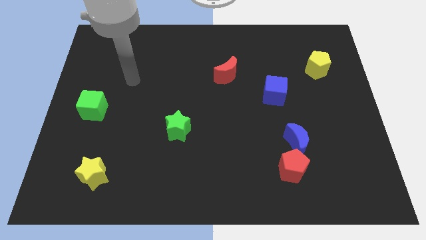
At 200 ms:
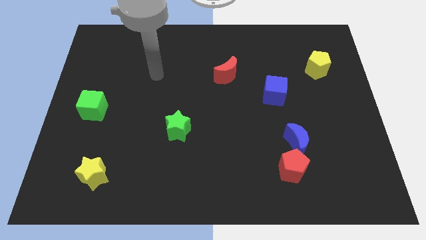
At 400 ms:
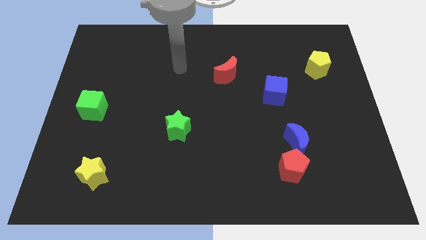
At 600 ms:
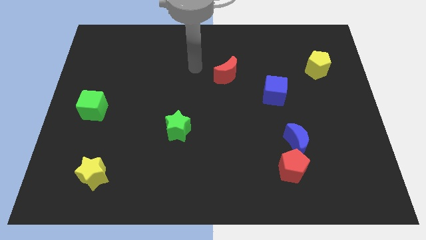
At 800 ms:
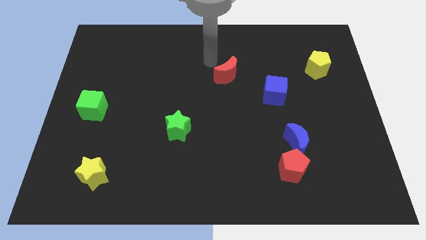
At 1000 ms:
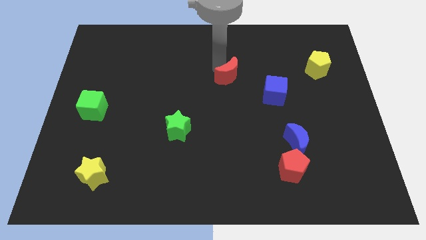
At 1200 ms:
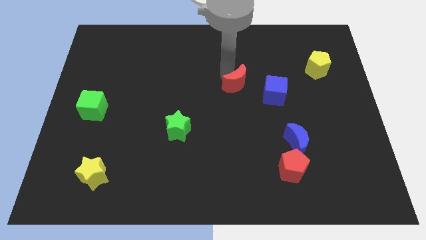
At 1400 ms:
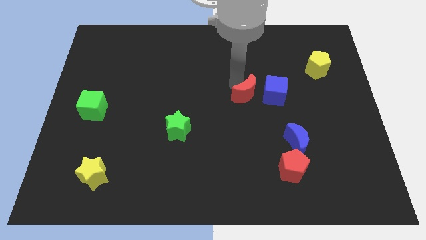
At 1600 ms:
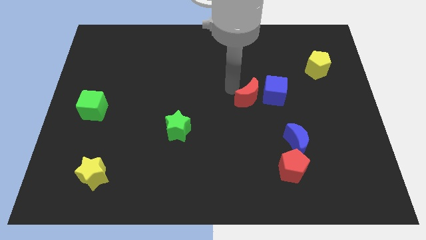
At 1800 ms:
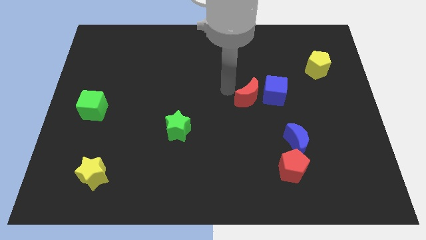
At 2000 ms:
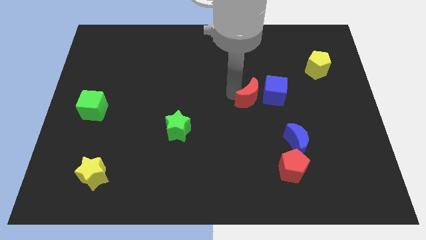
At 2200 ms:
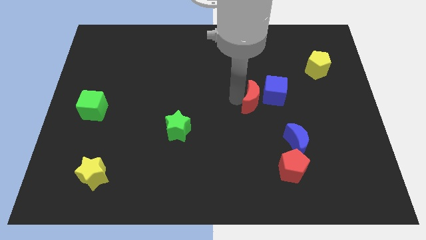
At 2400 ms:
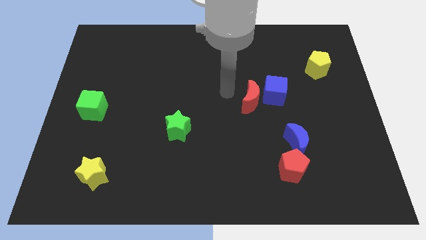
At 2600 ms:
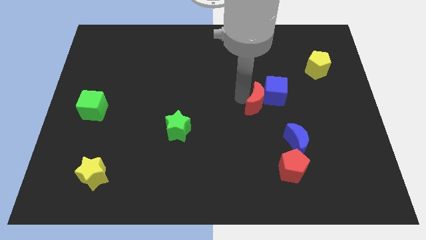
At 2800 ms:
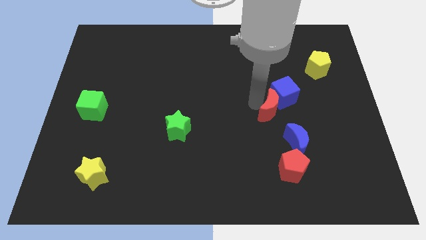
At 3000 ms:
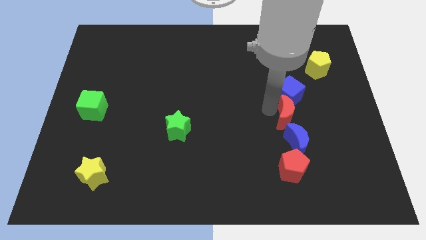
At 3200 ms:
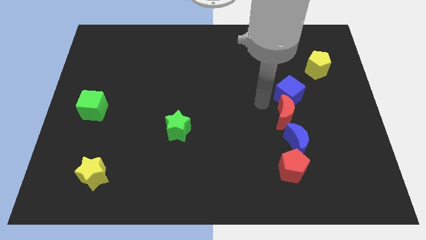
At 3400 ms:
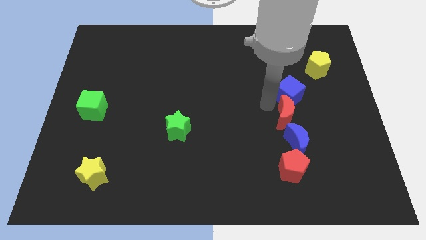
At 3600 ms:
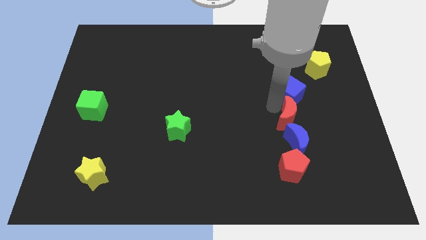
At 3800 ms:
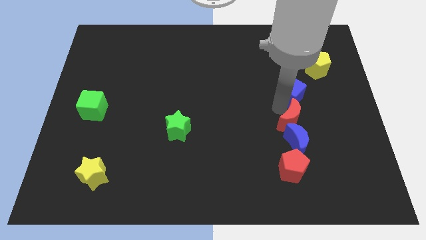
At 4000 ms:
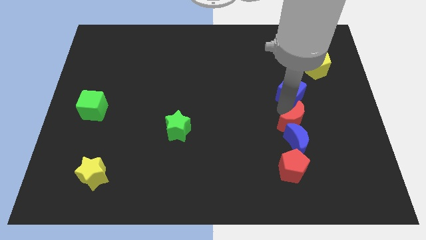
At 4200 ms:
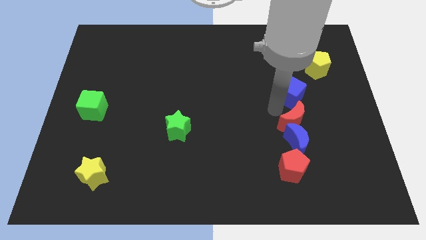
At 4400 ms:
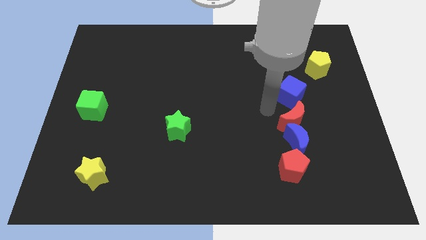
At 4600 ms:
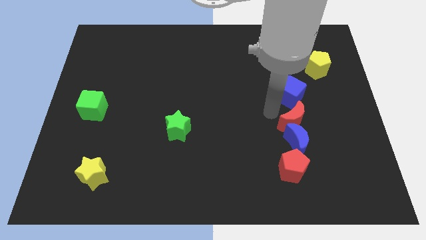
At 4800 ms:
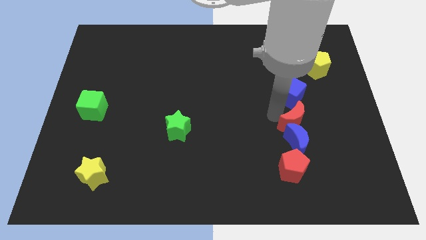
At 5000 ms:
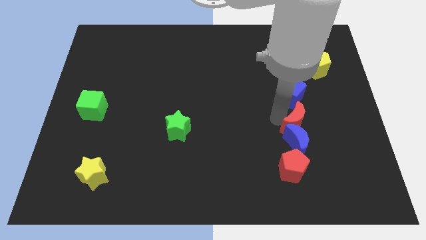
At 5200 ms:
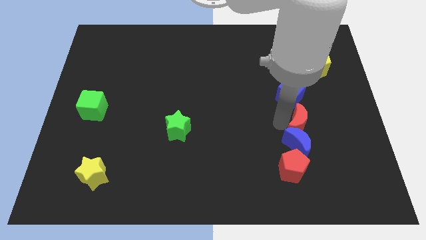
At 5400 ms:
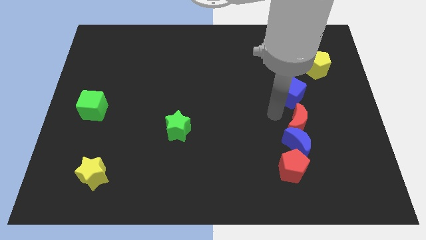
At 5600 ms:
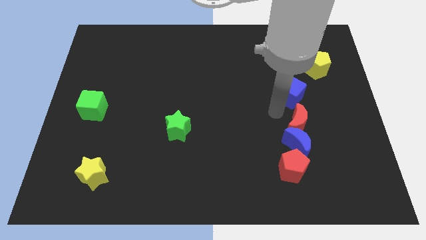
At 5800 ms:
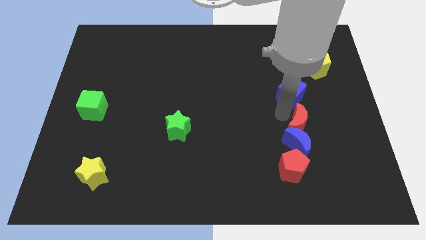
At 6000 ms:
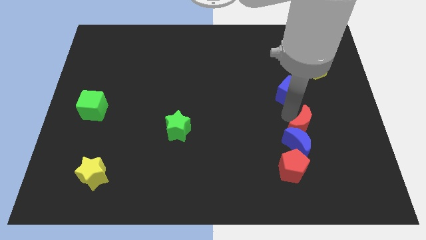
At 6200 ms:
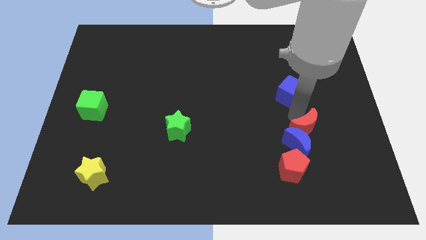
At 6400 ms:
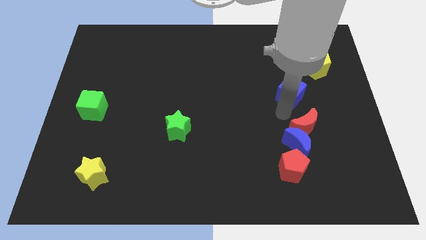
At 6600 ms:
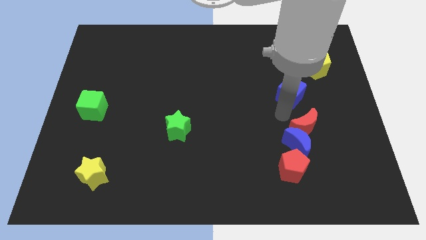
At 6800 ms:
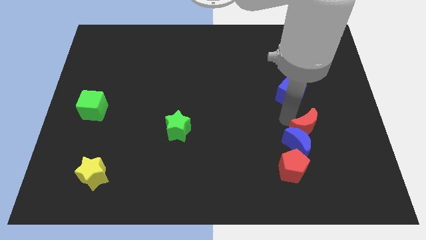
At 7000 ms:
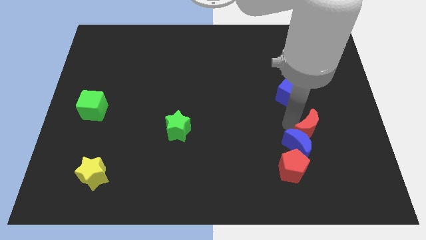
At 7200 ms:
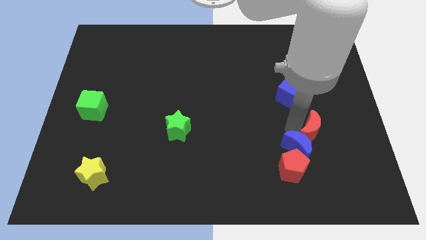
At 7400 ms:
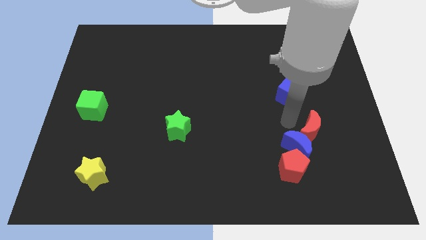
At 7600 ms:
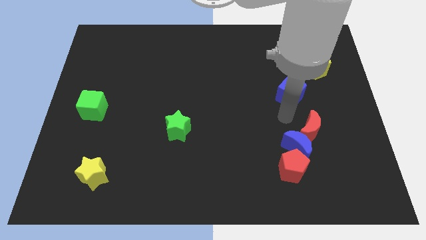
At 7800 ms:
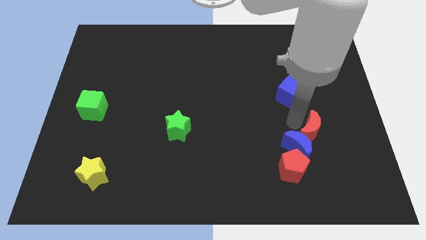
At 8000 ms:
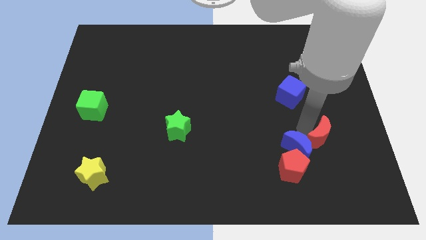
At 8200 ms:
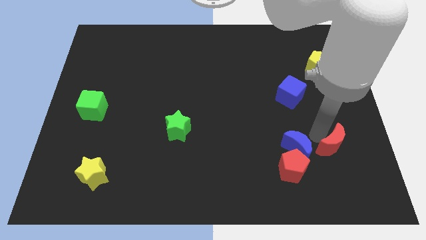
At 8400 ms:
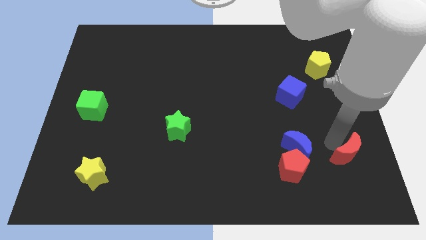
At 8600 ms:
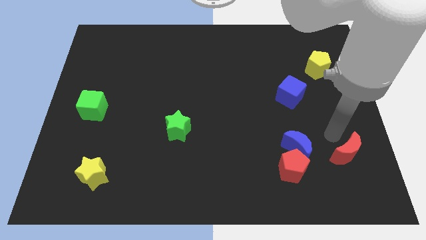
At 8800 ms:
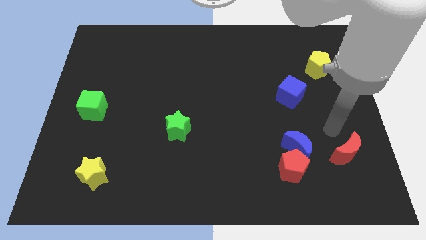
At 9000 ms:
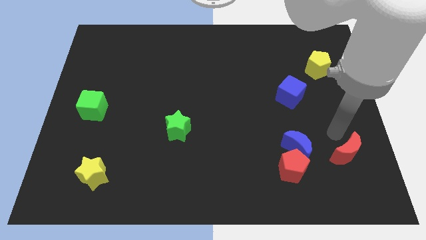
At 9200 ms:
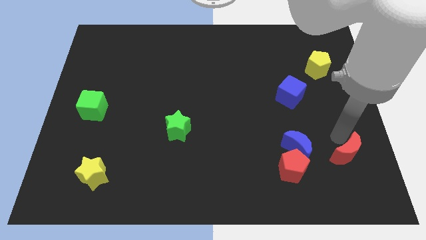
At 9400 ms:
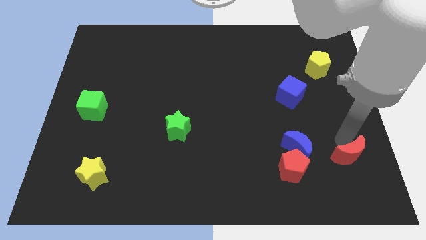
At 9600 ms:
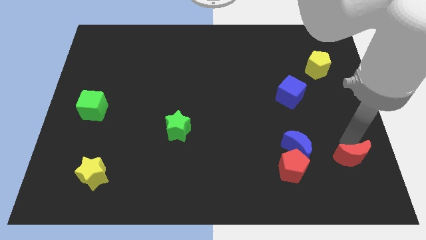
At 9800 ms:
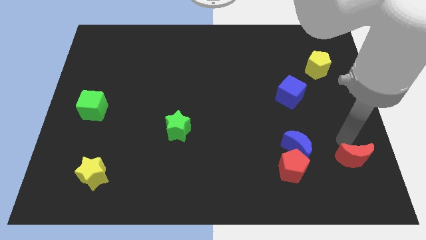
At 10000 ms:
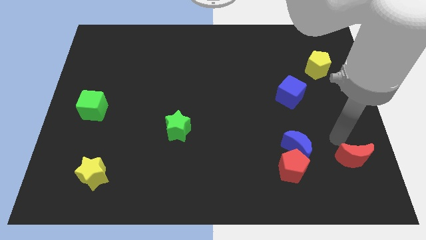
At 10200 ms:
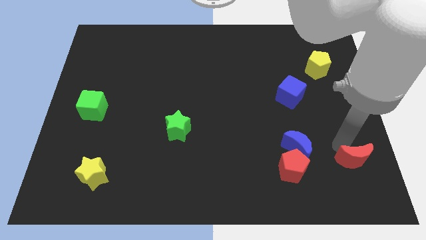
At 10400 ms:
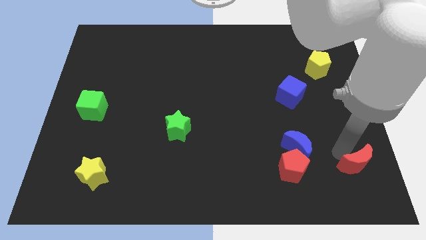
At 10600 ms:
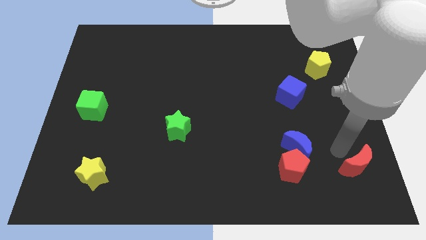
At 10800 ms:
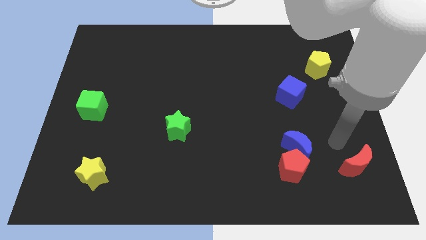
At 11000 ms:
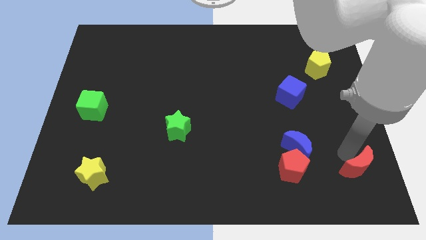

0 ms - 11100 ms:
put the red moon to the bottom right corner

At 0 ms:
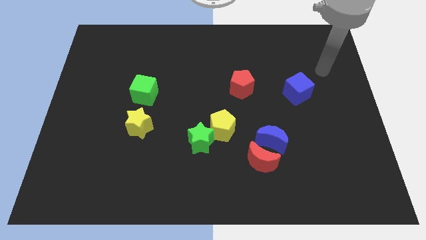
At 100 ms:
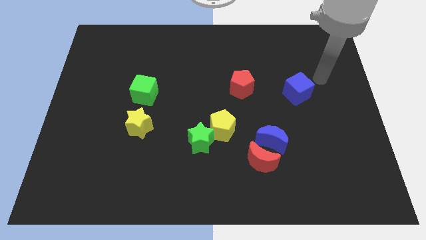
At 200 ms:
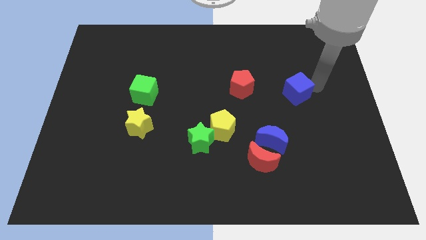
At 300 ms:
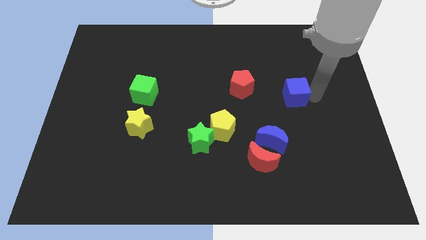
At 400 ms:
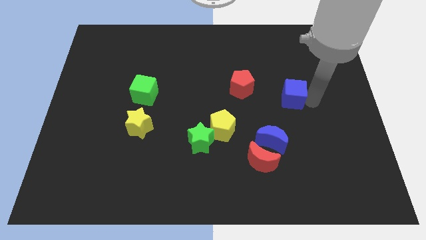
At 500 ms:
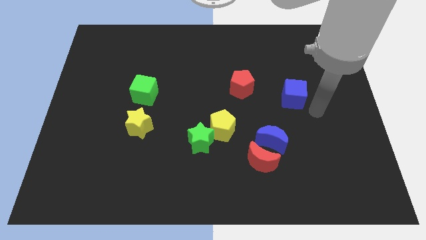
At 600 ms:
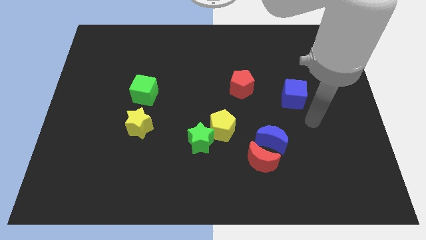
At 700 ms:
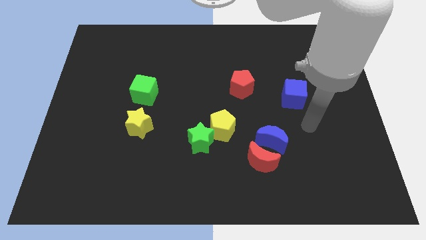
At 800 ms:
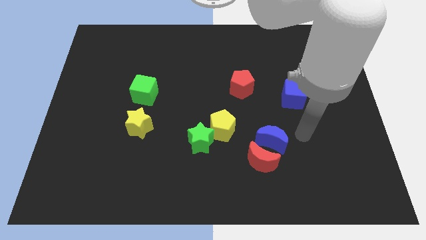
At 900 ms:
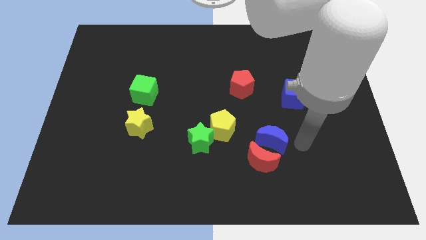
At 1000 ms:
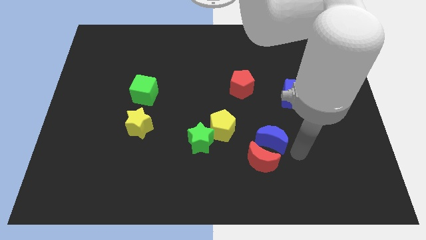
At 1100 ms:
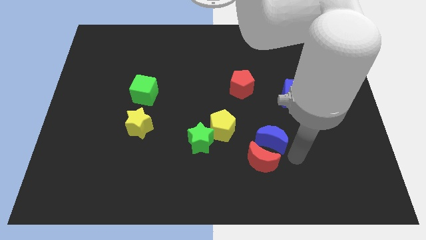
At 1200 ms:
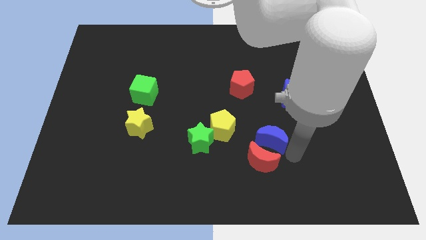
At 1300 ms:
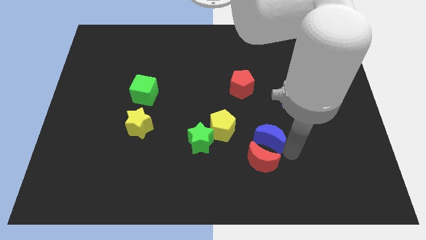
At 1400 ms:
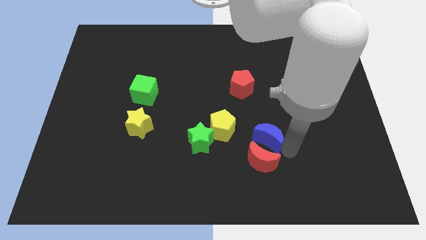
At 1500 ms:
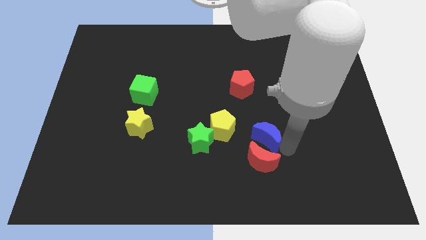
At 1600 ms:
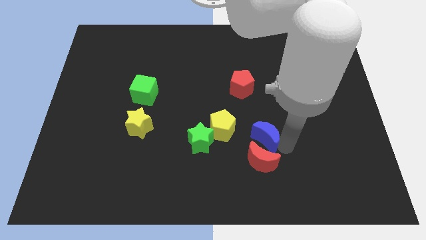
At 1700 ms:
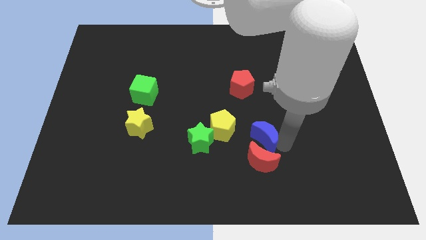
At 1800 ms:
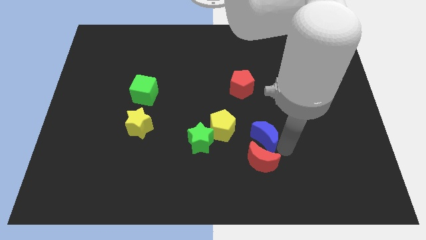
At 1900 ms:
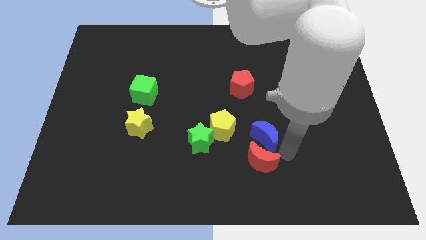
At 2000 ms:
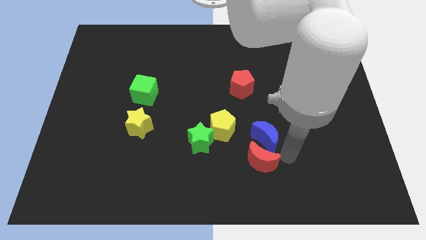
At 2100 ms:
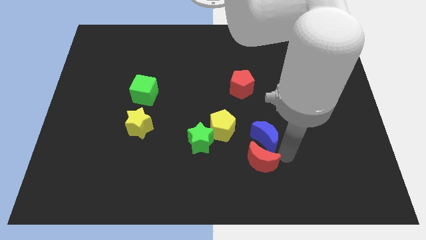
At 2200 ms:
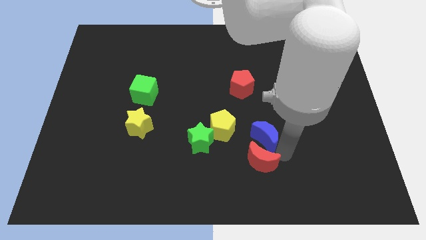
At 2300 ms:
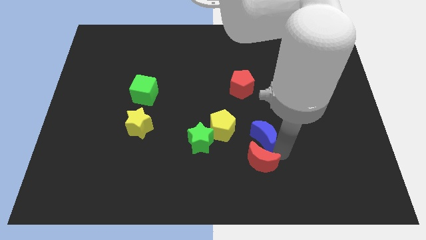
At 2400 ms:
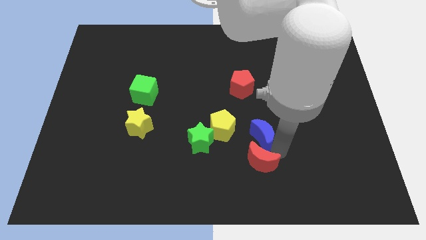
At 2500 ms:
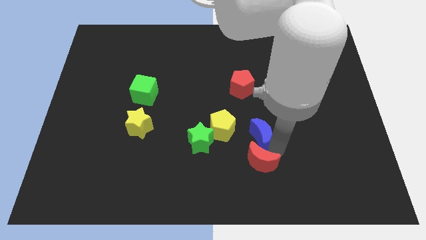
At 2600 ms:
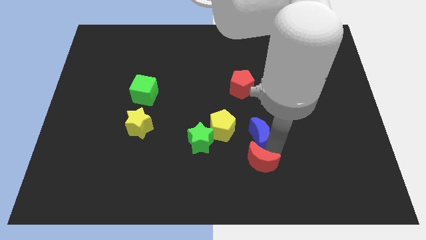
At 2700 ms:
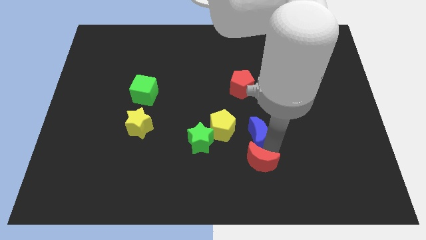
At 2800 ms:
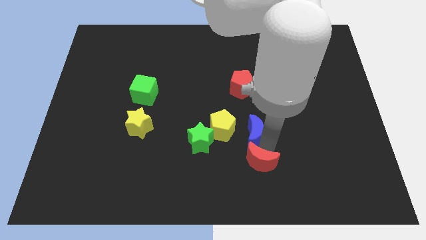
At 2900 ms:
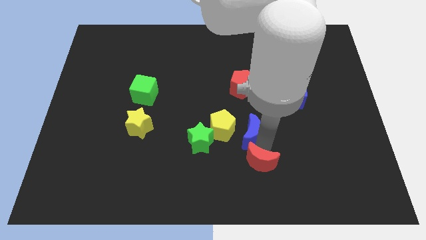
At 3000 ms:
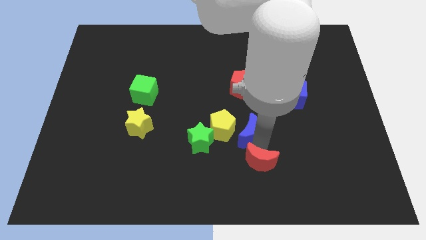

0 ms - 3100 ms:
move the blue moon to the center of the board
